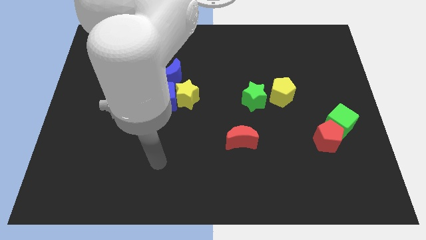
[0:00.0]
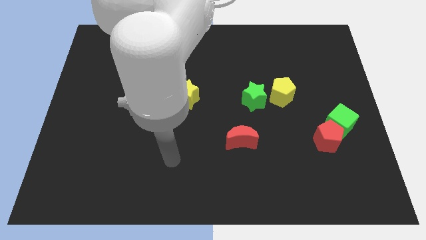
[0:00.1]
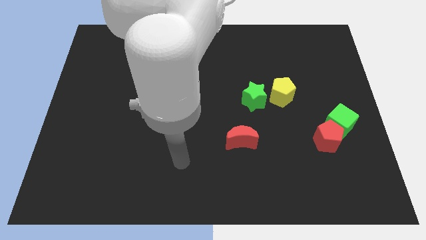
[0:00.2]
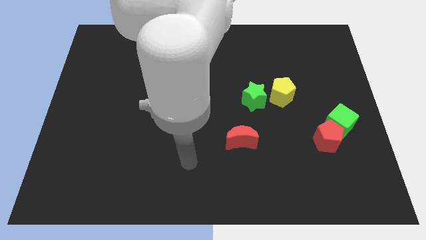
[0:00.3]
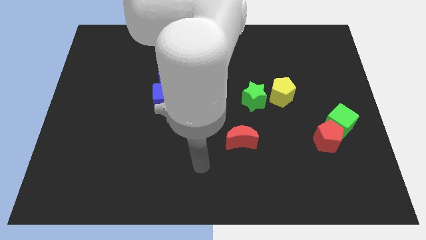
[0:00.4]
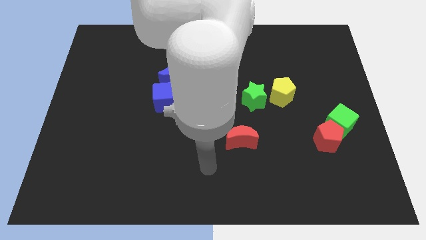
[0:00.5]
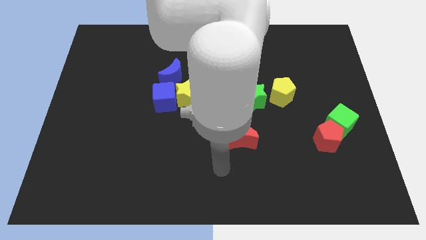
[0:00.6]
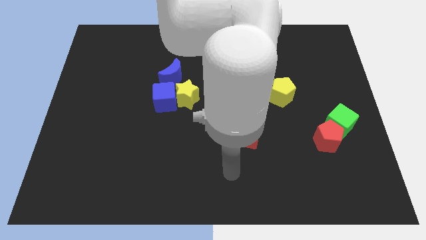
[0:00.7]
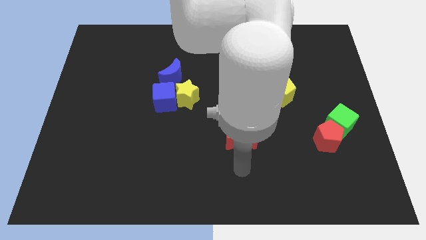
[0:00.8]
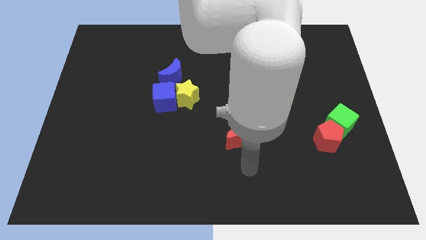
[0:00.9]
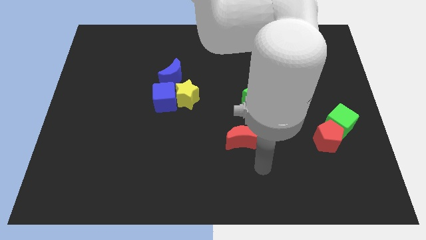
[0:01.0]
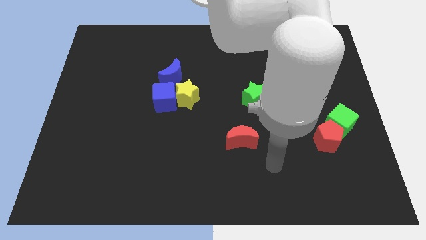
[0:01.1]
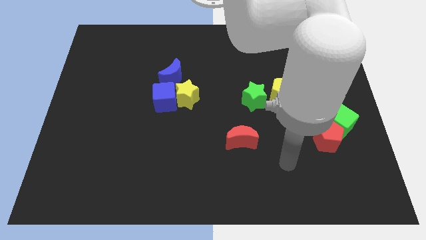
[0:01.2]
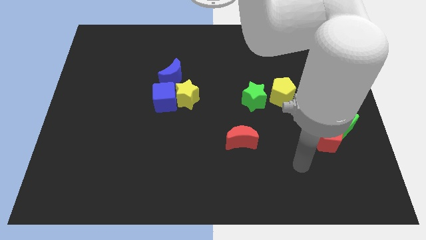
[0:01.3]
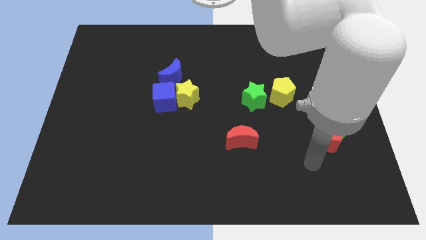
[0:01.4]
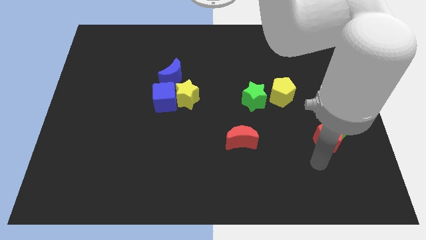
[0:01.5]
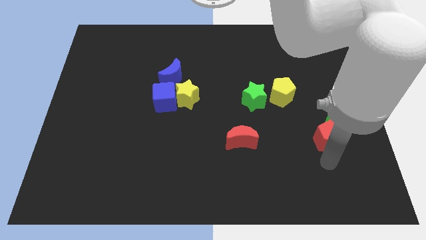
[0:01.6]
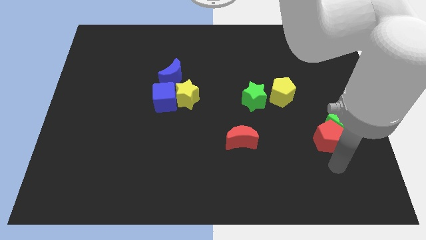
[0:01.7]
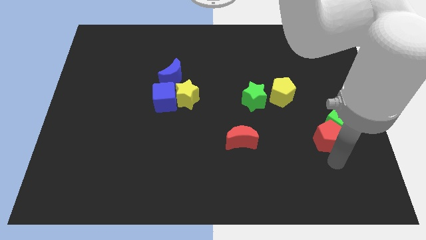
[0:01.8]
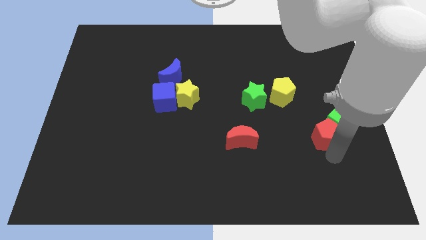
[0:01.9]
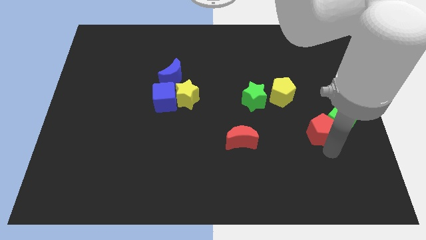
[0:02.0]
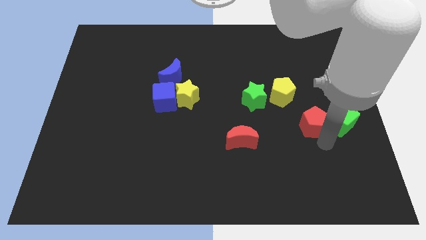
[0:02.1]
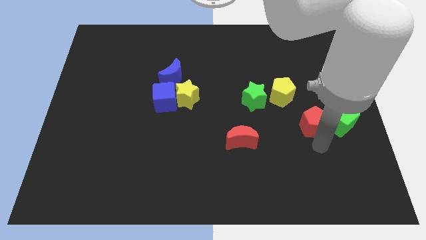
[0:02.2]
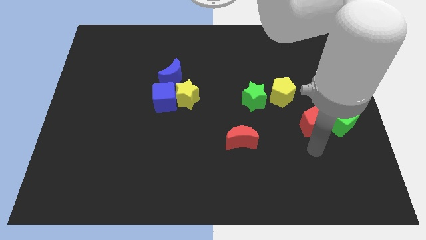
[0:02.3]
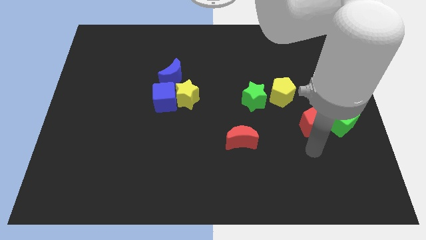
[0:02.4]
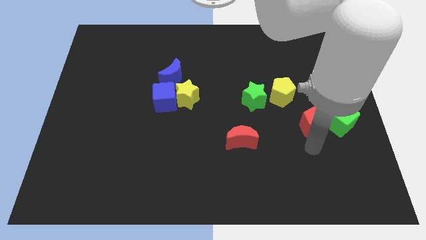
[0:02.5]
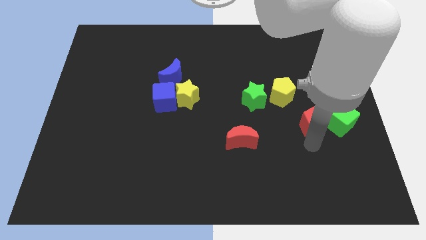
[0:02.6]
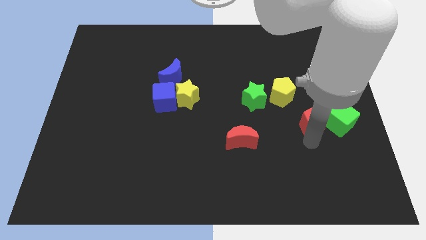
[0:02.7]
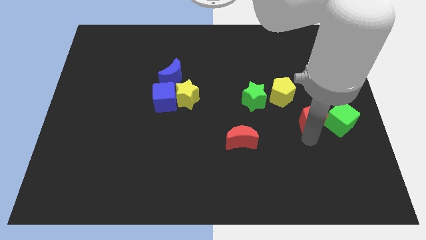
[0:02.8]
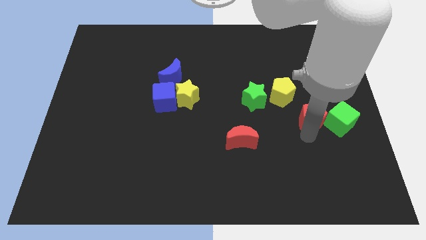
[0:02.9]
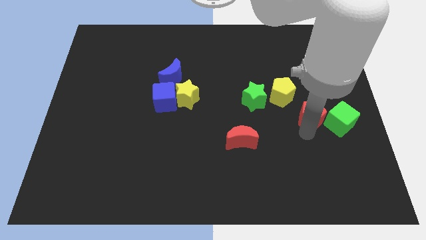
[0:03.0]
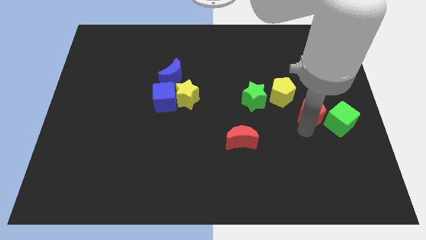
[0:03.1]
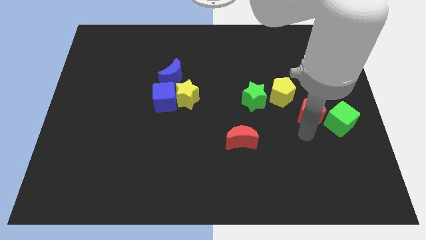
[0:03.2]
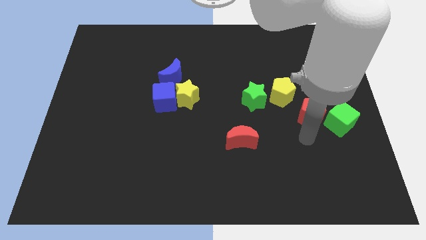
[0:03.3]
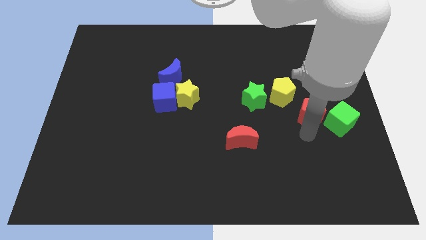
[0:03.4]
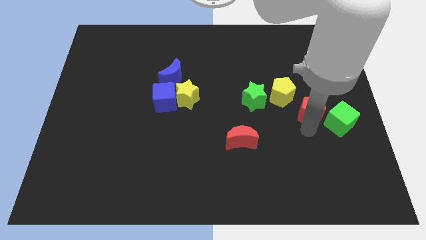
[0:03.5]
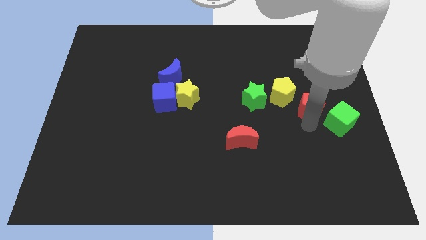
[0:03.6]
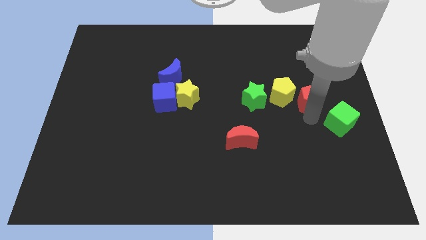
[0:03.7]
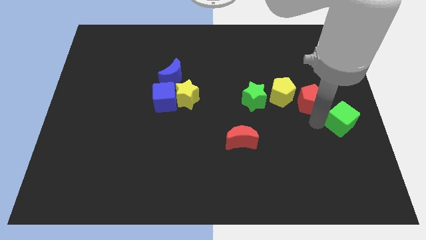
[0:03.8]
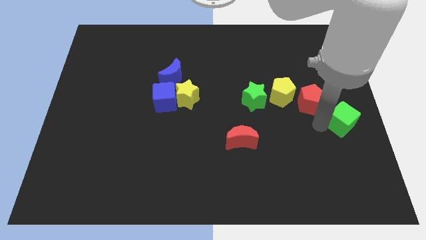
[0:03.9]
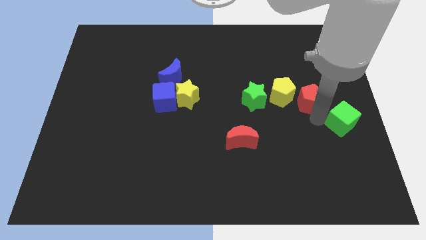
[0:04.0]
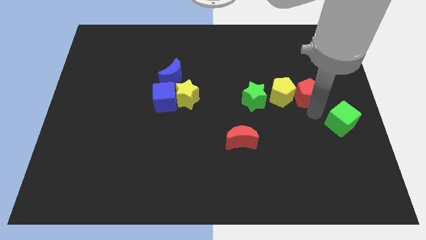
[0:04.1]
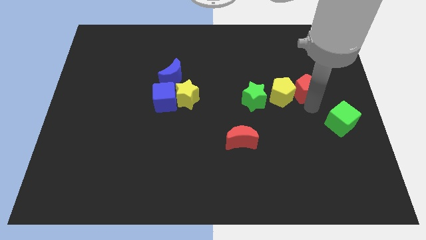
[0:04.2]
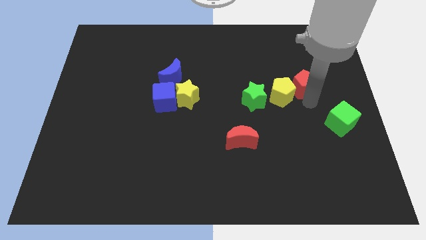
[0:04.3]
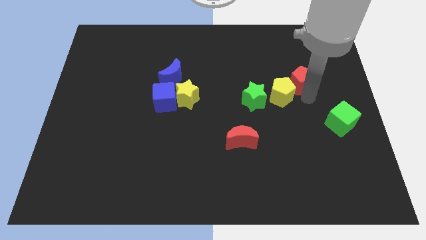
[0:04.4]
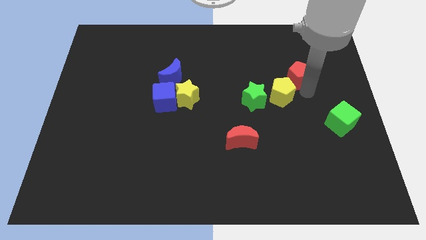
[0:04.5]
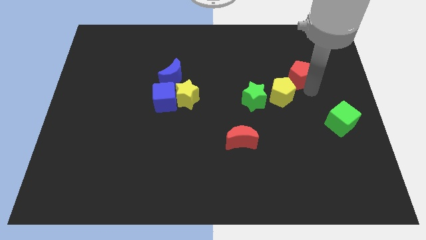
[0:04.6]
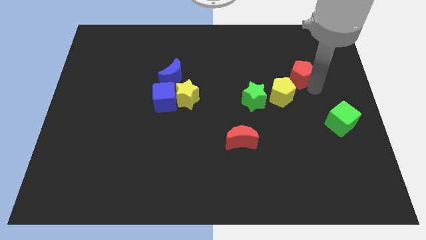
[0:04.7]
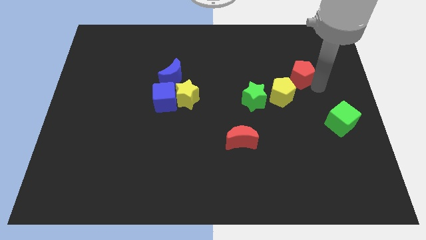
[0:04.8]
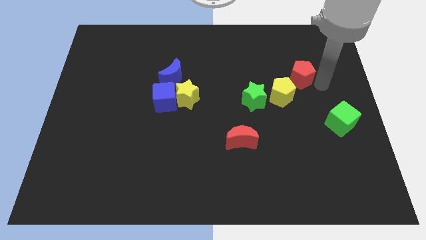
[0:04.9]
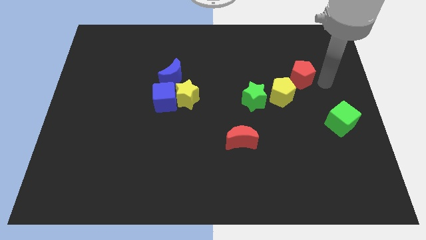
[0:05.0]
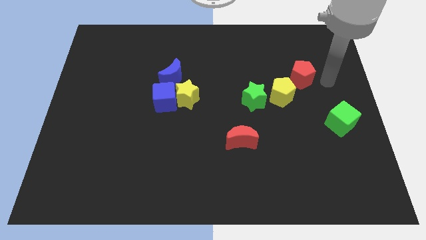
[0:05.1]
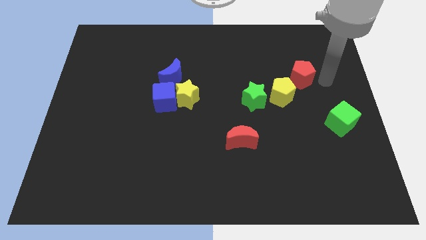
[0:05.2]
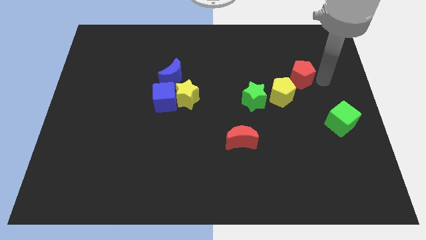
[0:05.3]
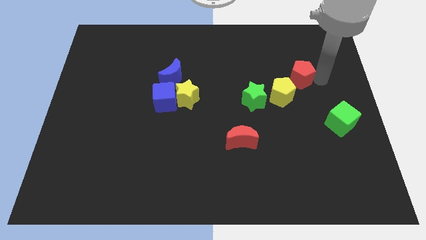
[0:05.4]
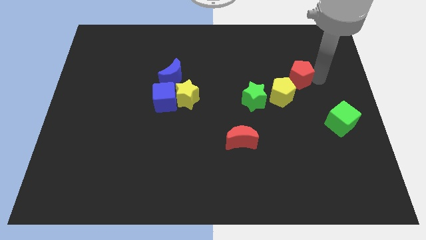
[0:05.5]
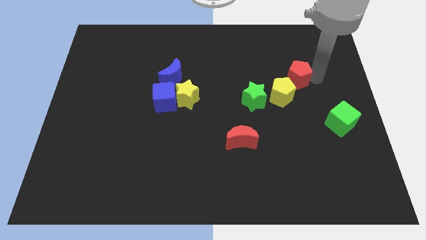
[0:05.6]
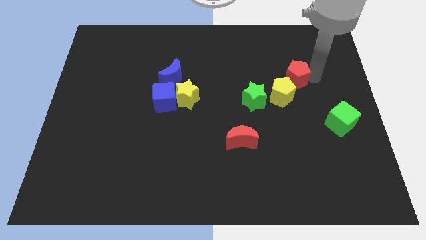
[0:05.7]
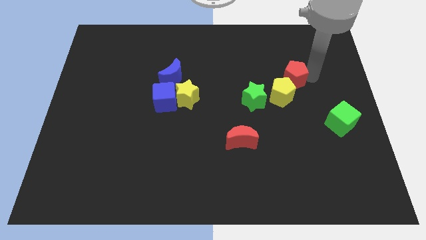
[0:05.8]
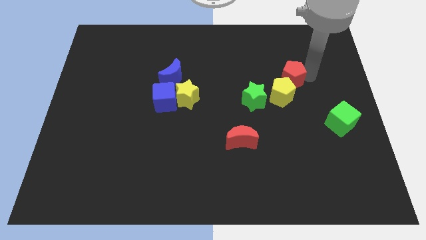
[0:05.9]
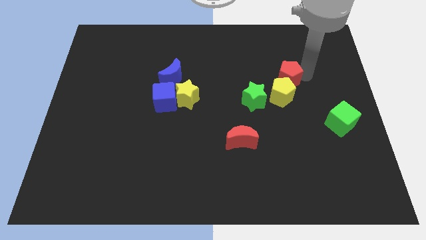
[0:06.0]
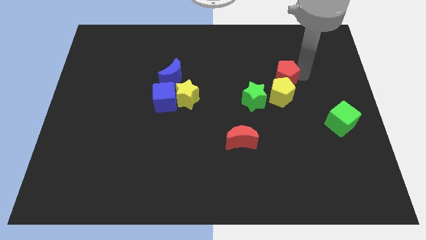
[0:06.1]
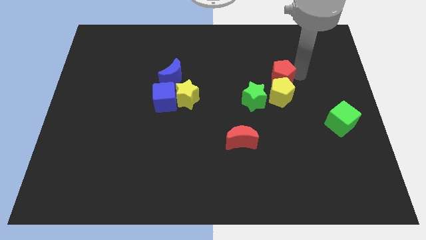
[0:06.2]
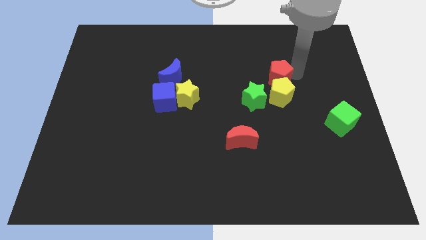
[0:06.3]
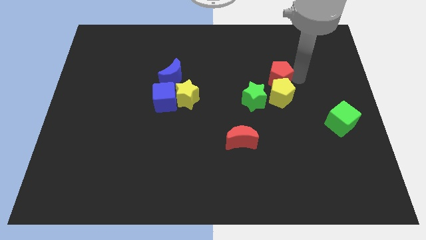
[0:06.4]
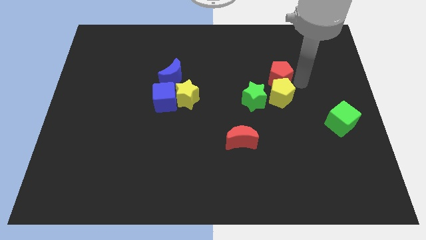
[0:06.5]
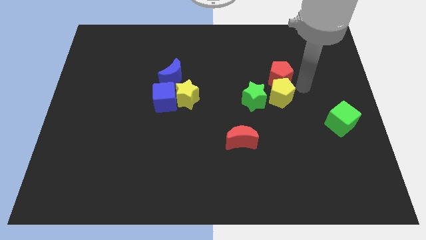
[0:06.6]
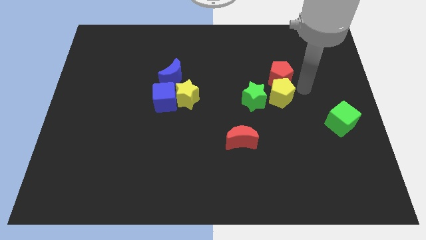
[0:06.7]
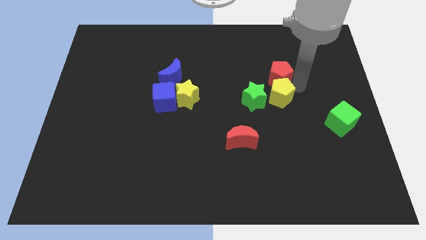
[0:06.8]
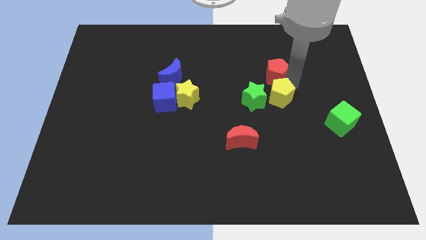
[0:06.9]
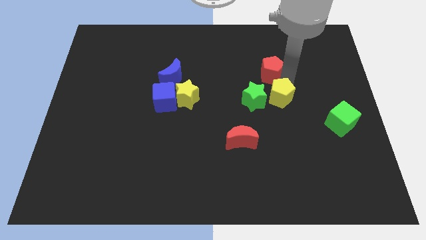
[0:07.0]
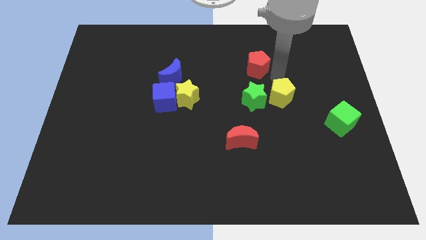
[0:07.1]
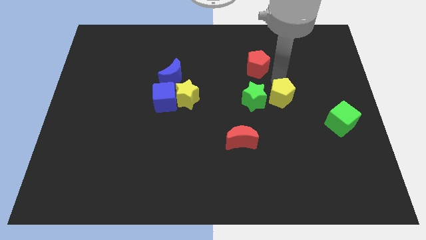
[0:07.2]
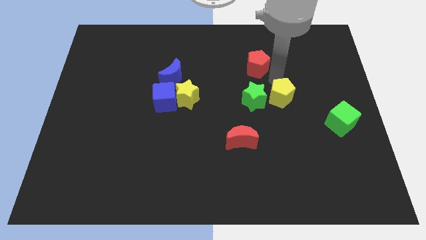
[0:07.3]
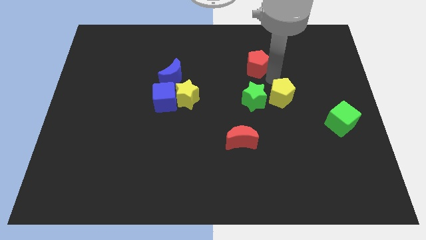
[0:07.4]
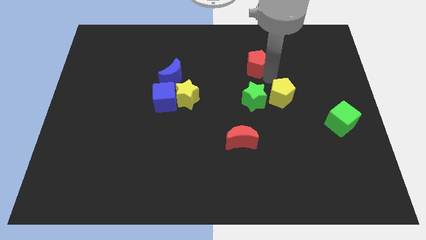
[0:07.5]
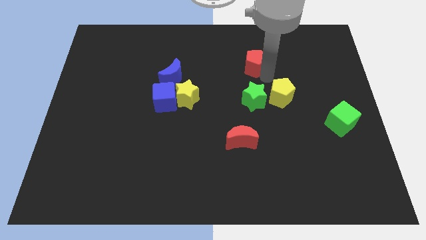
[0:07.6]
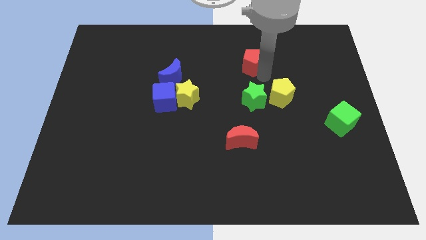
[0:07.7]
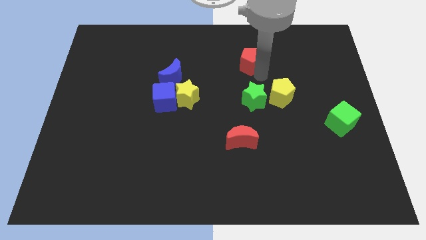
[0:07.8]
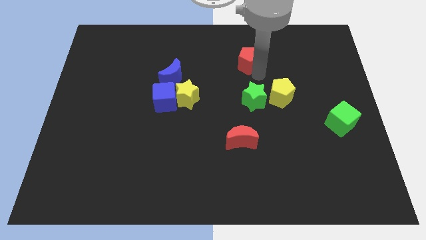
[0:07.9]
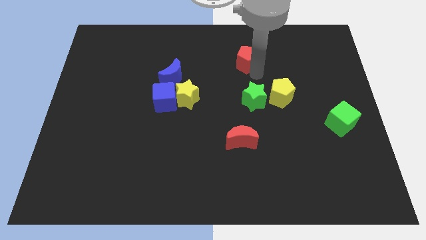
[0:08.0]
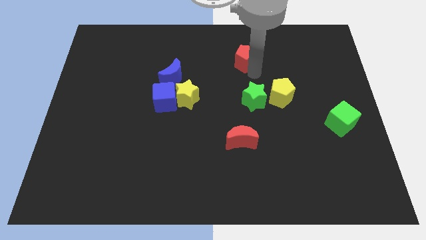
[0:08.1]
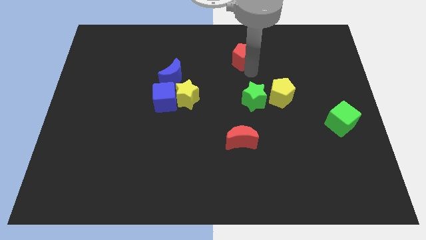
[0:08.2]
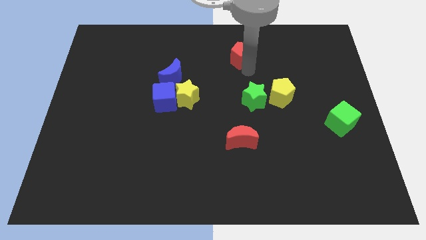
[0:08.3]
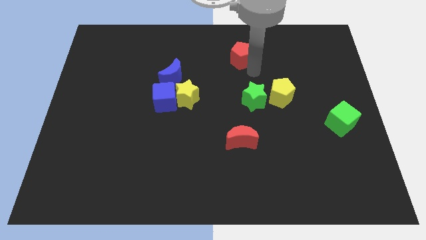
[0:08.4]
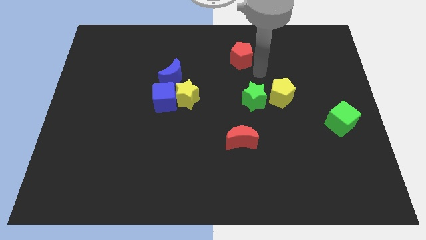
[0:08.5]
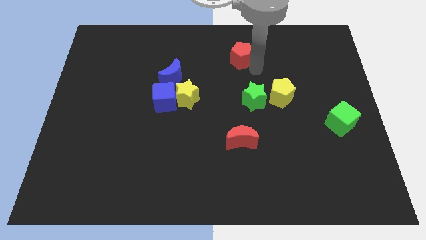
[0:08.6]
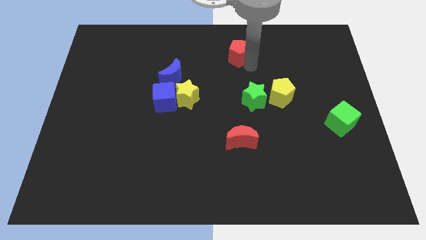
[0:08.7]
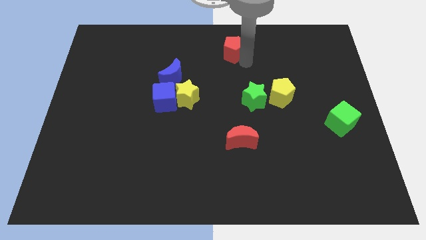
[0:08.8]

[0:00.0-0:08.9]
push the red pentagon to the top
